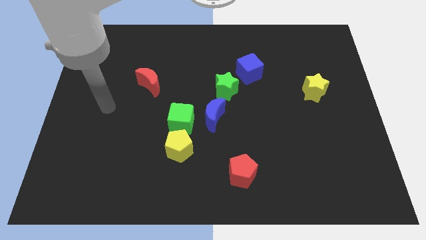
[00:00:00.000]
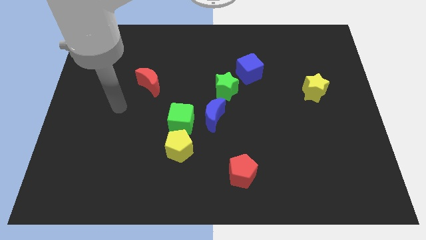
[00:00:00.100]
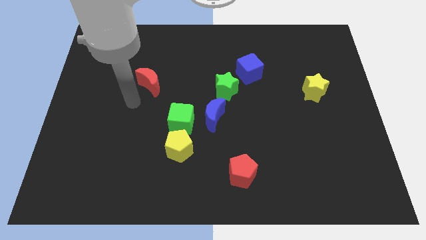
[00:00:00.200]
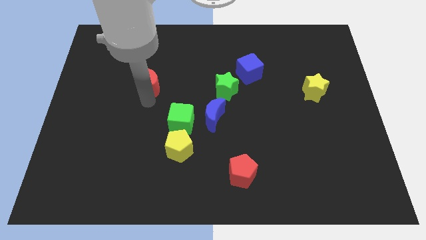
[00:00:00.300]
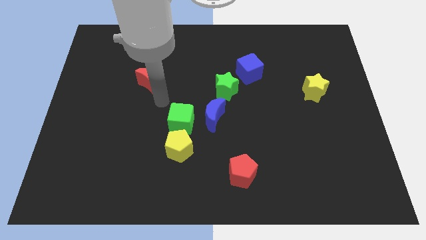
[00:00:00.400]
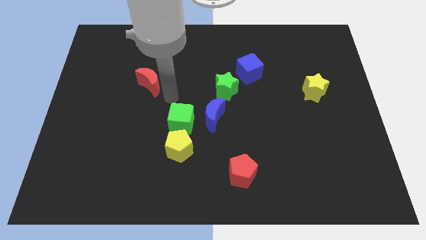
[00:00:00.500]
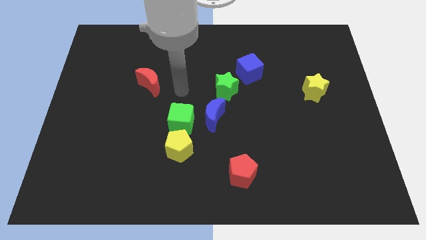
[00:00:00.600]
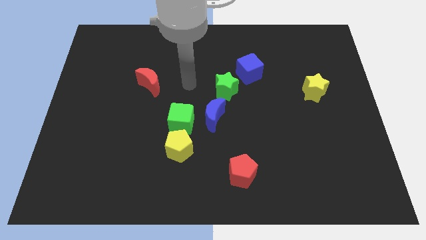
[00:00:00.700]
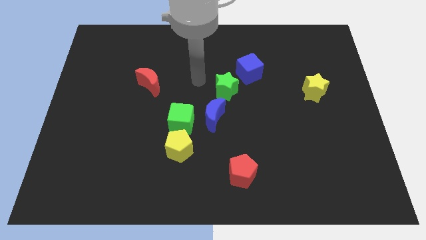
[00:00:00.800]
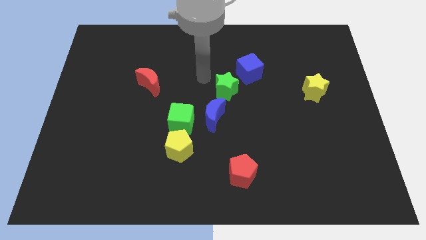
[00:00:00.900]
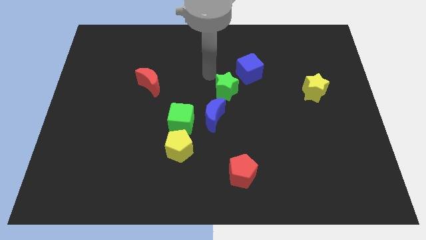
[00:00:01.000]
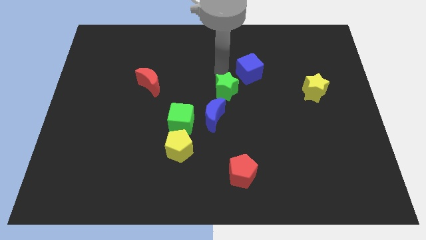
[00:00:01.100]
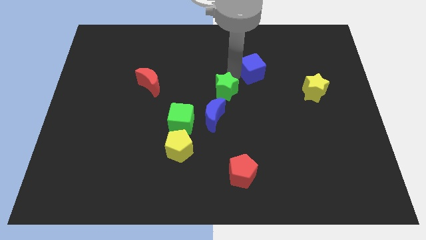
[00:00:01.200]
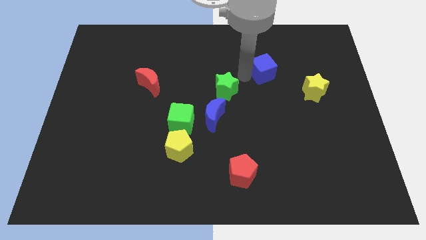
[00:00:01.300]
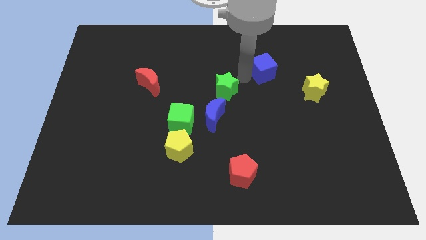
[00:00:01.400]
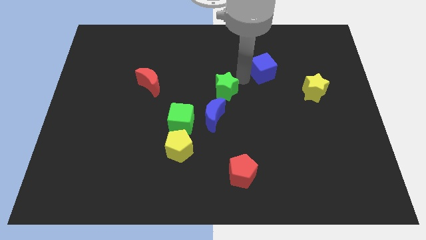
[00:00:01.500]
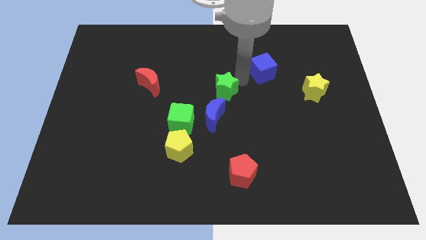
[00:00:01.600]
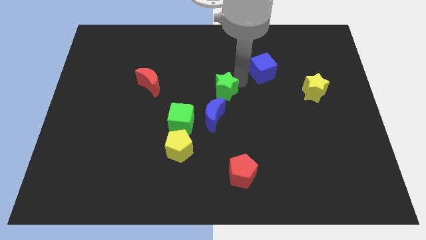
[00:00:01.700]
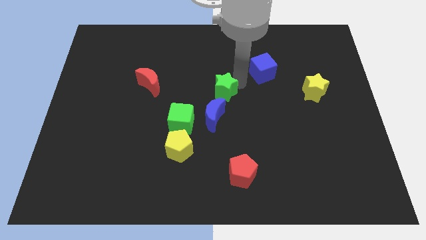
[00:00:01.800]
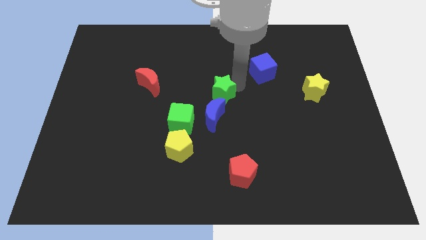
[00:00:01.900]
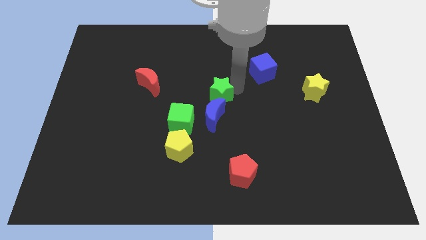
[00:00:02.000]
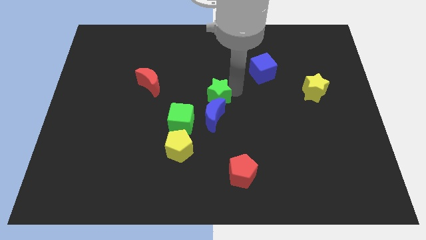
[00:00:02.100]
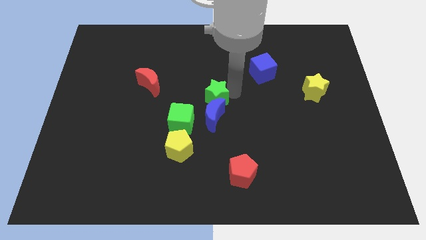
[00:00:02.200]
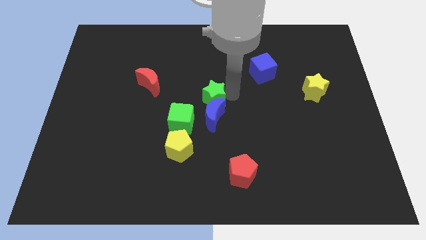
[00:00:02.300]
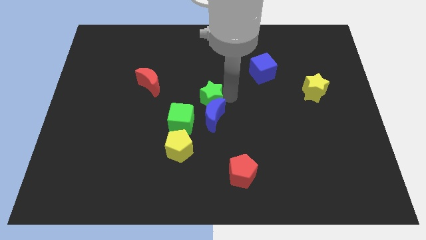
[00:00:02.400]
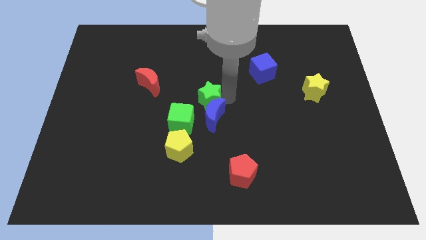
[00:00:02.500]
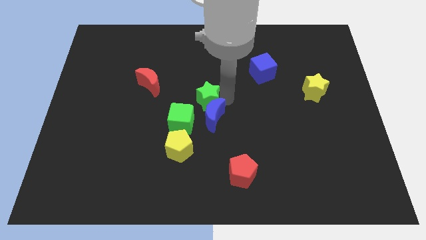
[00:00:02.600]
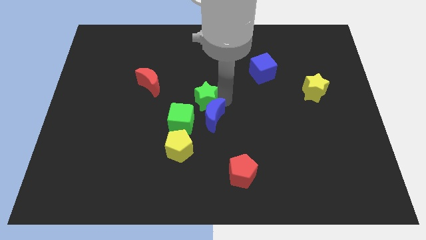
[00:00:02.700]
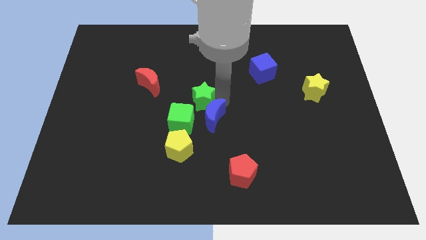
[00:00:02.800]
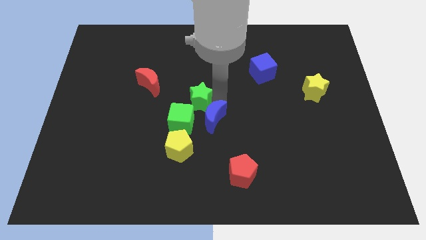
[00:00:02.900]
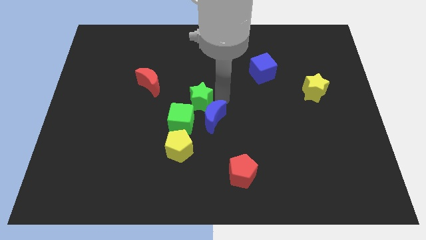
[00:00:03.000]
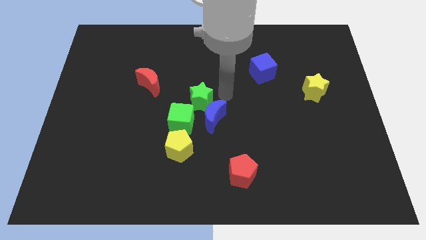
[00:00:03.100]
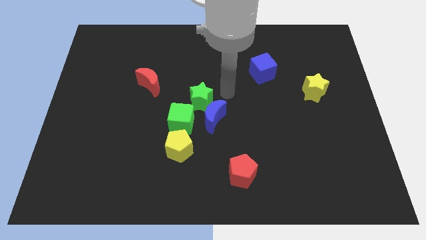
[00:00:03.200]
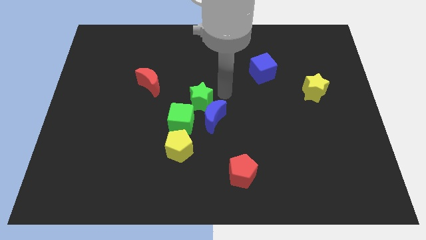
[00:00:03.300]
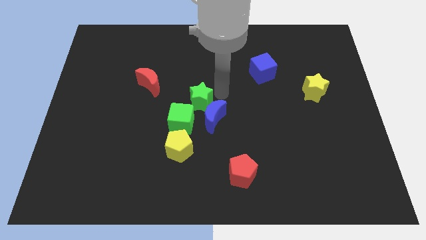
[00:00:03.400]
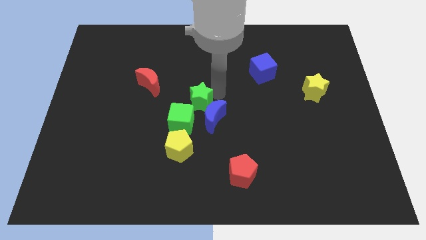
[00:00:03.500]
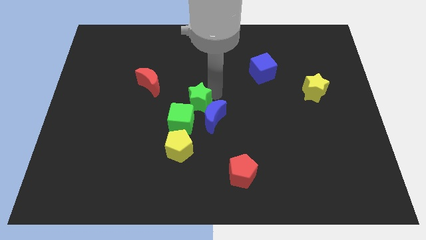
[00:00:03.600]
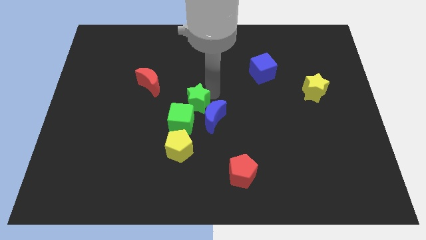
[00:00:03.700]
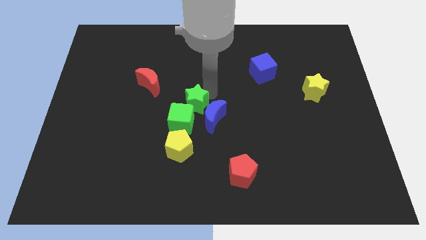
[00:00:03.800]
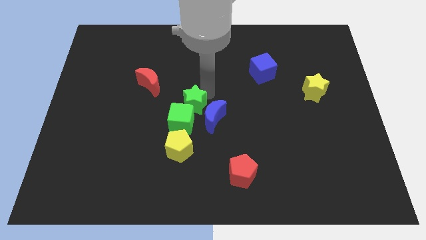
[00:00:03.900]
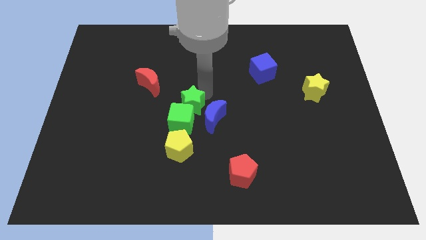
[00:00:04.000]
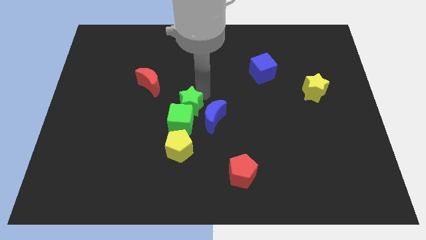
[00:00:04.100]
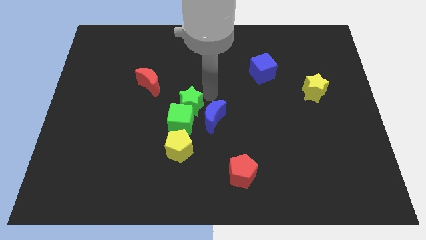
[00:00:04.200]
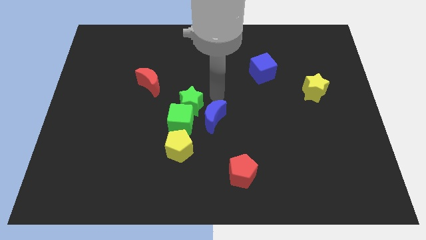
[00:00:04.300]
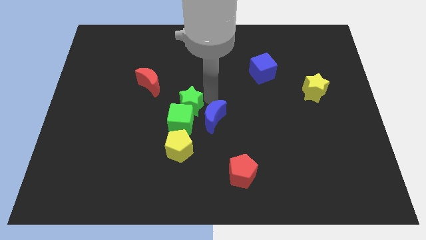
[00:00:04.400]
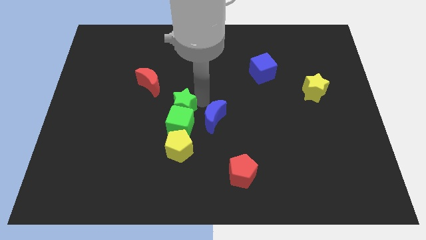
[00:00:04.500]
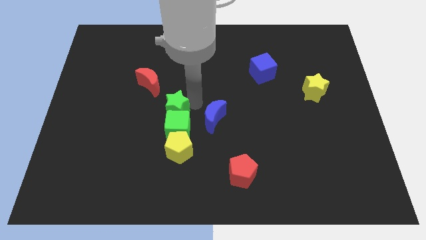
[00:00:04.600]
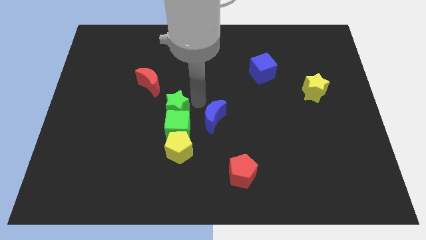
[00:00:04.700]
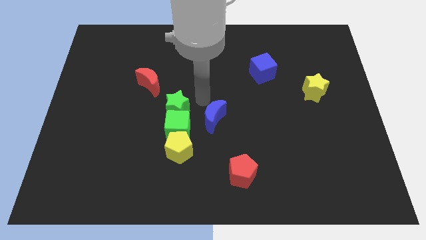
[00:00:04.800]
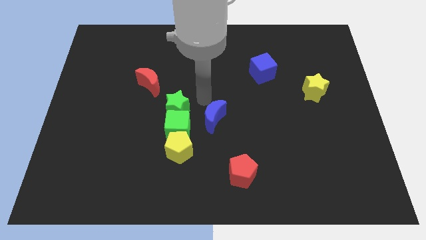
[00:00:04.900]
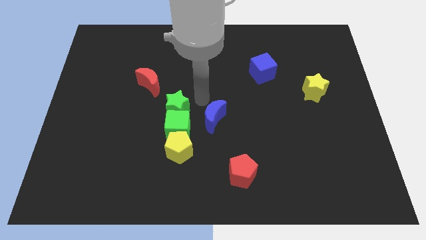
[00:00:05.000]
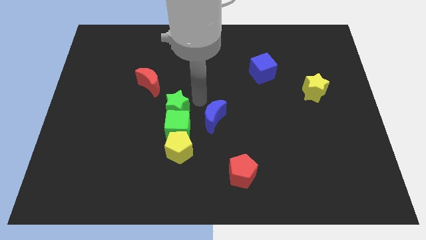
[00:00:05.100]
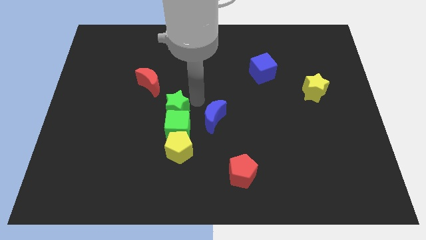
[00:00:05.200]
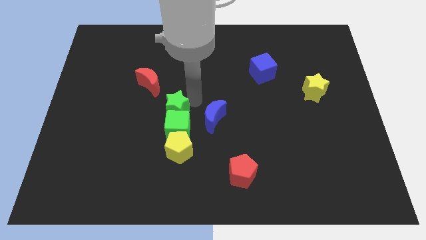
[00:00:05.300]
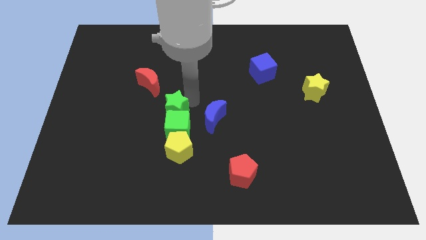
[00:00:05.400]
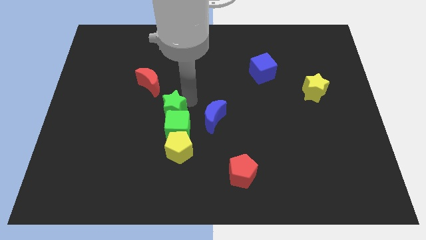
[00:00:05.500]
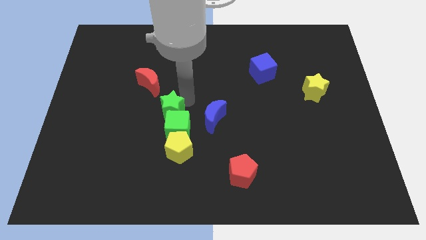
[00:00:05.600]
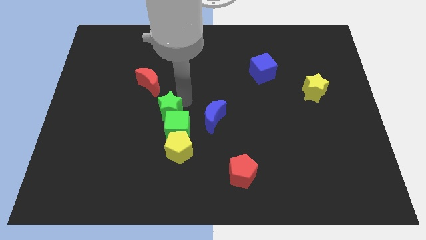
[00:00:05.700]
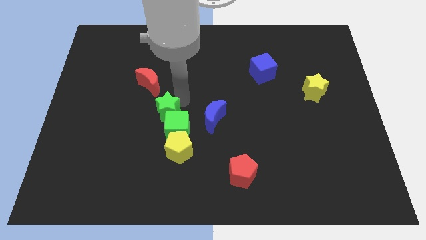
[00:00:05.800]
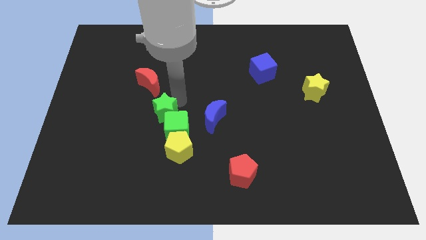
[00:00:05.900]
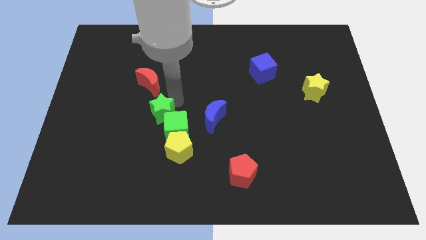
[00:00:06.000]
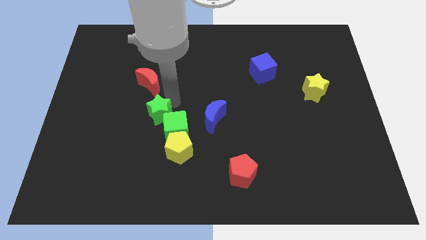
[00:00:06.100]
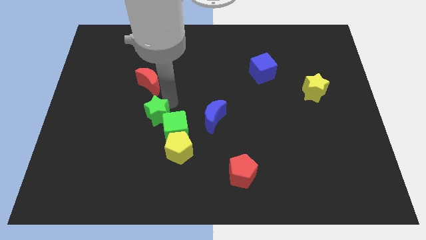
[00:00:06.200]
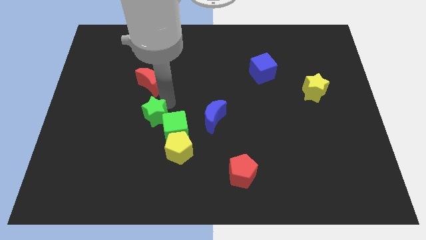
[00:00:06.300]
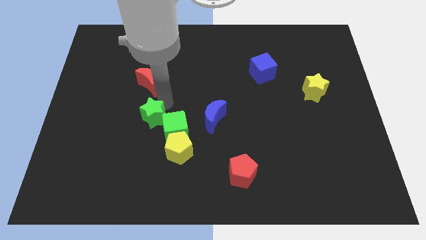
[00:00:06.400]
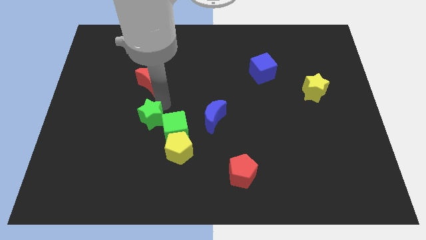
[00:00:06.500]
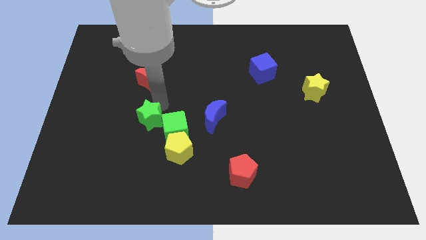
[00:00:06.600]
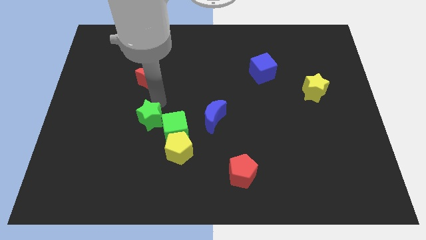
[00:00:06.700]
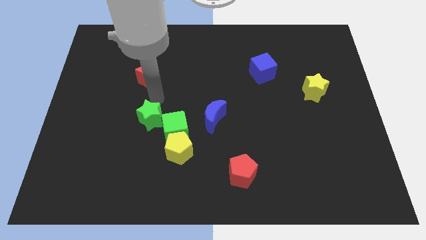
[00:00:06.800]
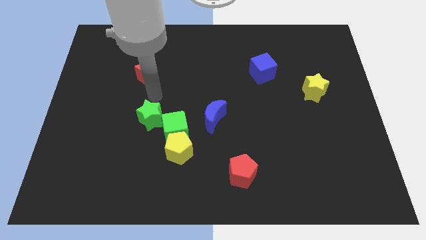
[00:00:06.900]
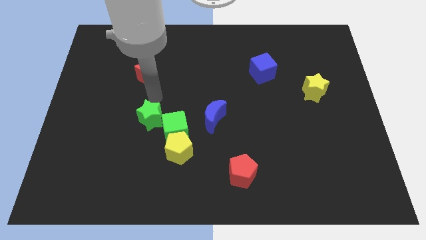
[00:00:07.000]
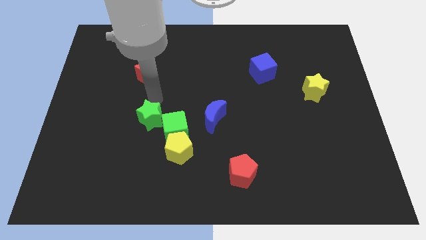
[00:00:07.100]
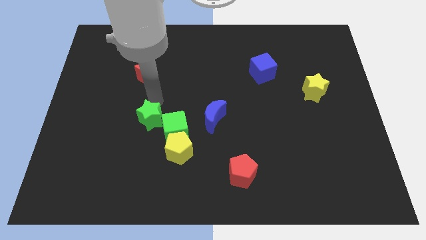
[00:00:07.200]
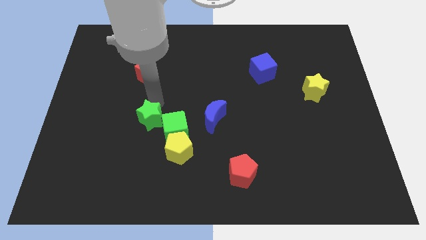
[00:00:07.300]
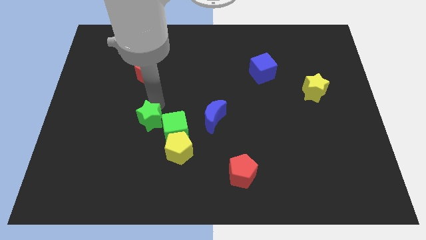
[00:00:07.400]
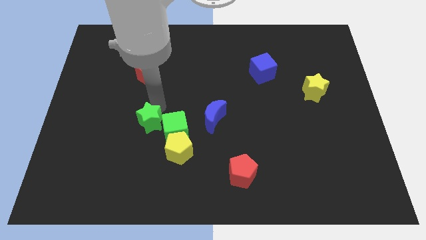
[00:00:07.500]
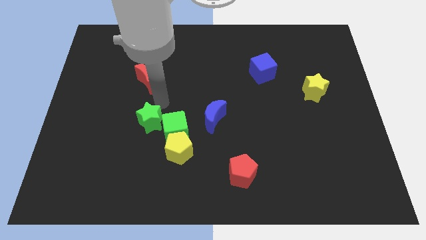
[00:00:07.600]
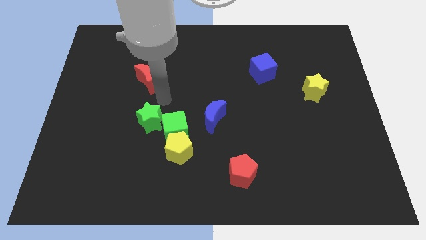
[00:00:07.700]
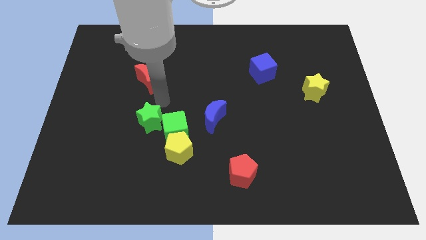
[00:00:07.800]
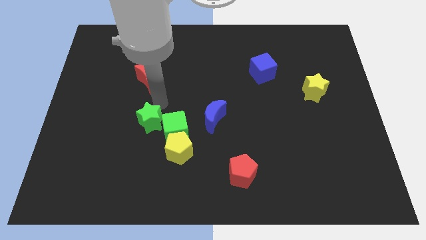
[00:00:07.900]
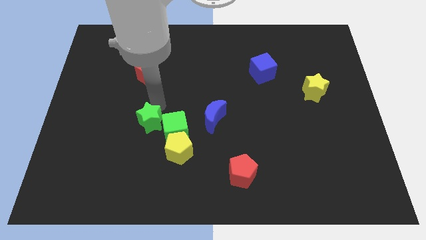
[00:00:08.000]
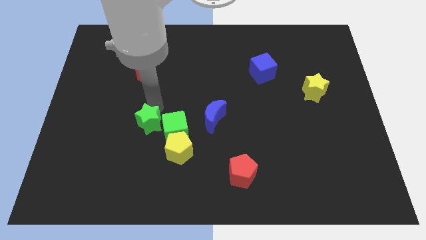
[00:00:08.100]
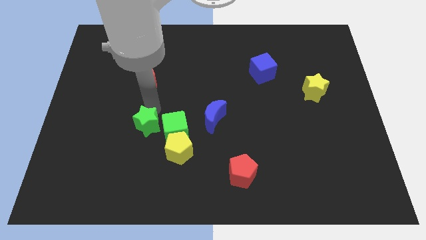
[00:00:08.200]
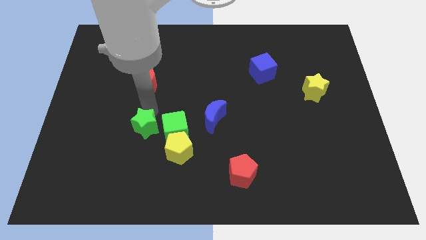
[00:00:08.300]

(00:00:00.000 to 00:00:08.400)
push the green star downwards and to the left
